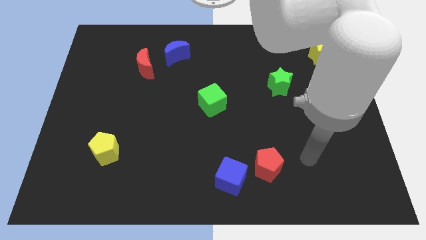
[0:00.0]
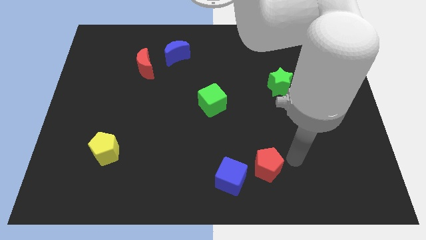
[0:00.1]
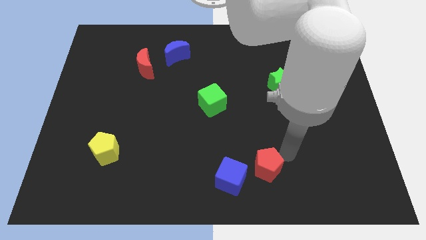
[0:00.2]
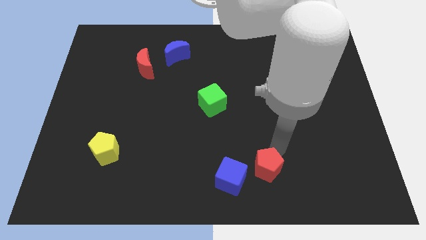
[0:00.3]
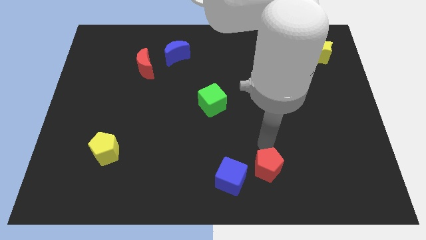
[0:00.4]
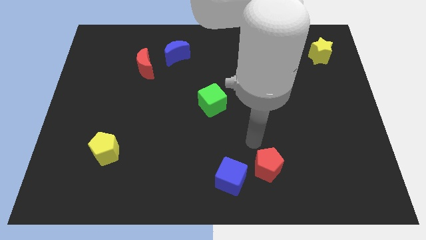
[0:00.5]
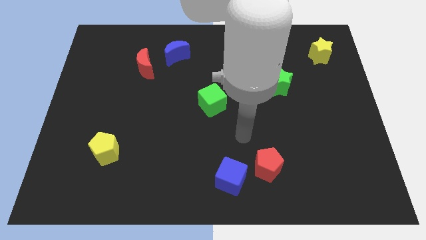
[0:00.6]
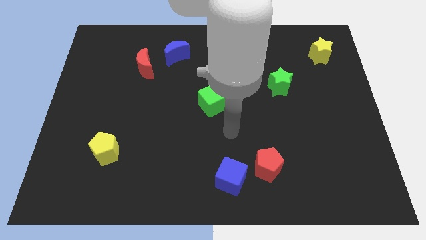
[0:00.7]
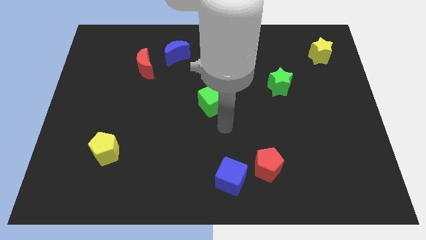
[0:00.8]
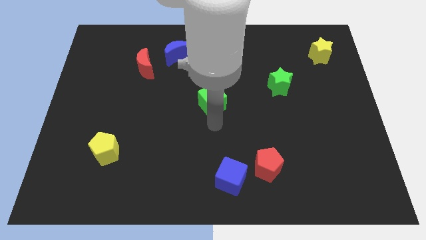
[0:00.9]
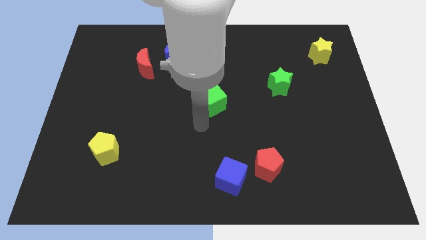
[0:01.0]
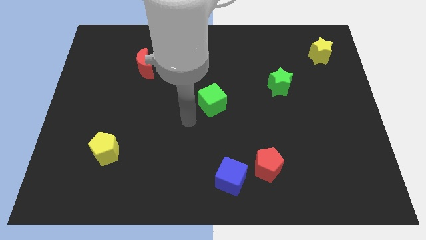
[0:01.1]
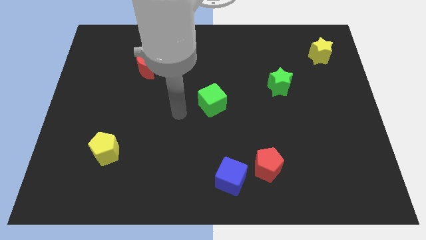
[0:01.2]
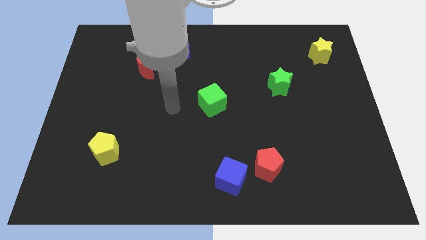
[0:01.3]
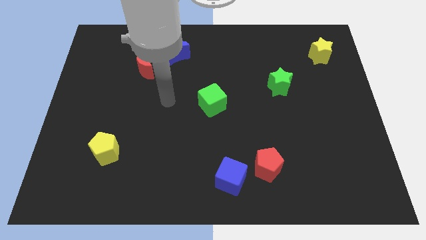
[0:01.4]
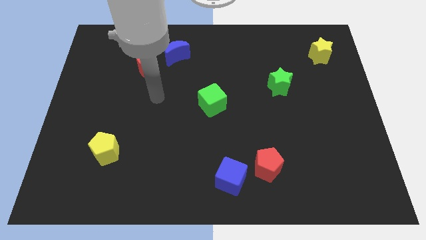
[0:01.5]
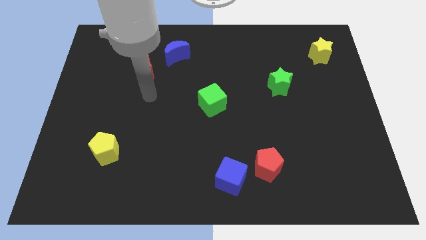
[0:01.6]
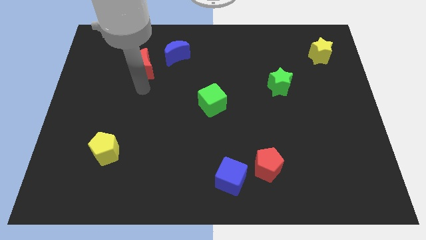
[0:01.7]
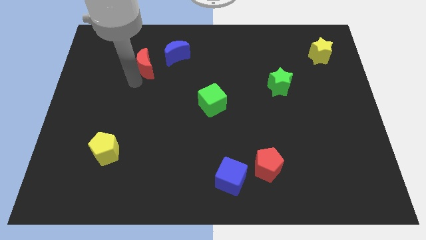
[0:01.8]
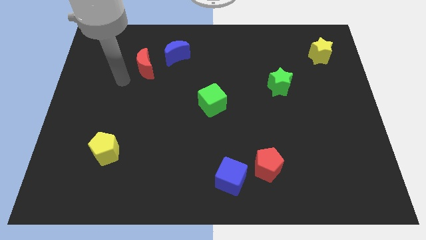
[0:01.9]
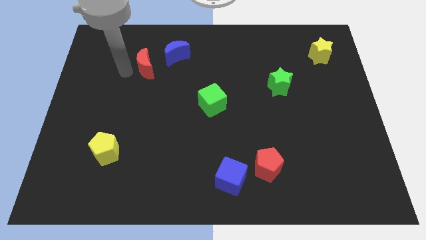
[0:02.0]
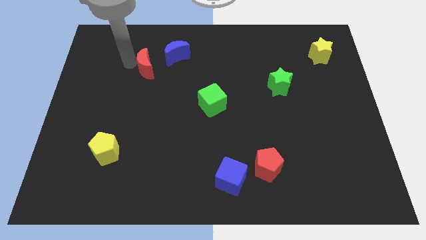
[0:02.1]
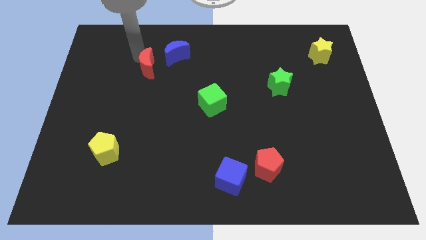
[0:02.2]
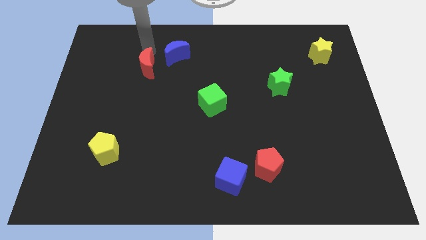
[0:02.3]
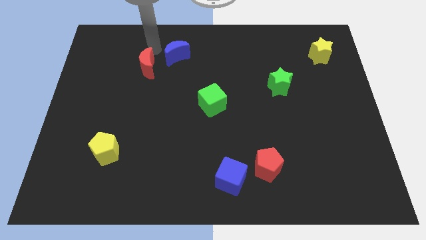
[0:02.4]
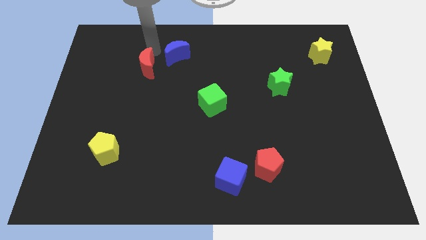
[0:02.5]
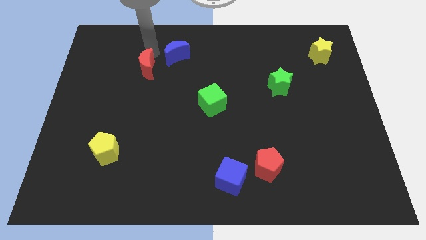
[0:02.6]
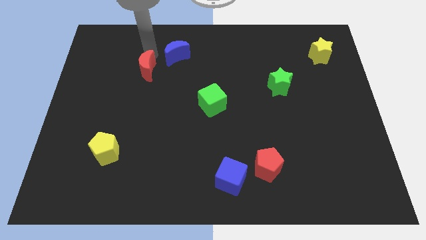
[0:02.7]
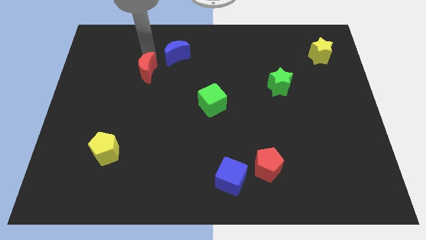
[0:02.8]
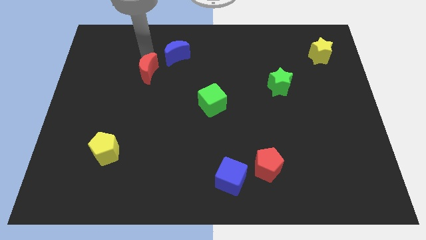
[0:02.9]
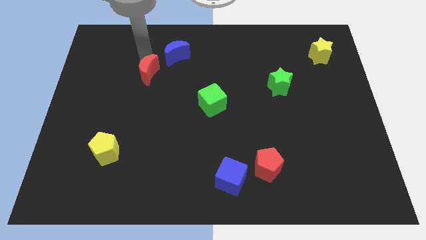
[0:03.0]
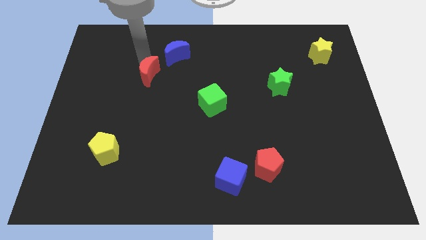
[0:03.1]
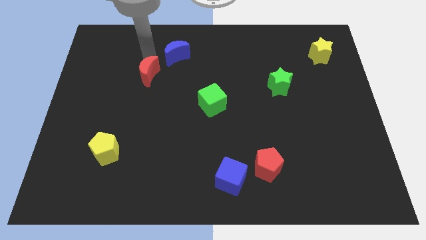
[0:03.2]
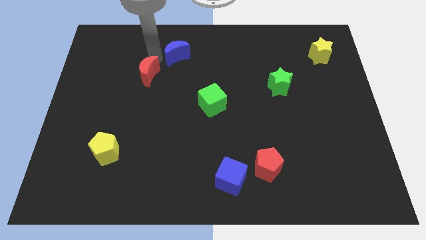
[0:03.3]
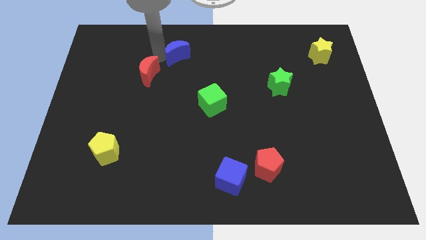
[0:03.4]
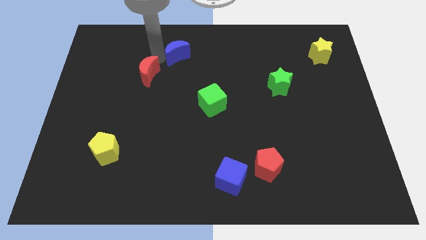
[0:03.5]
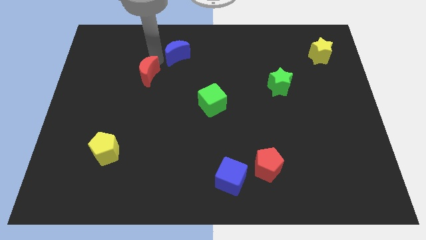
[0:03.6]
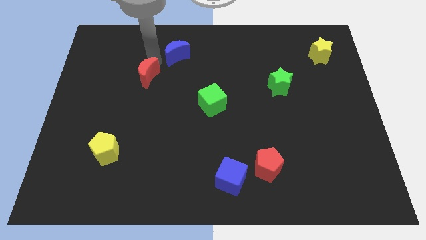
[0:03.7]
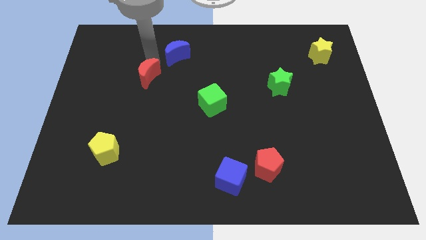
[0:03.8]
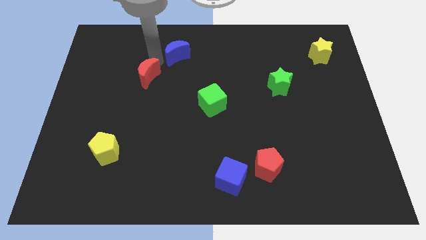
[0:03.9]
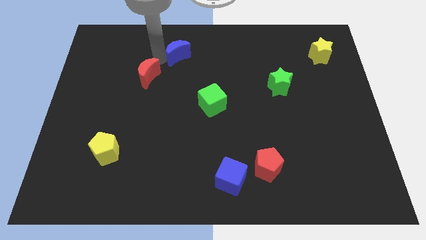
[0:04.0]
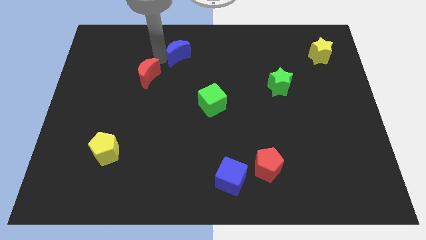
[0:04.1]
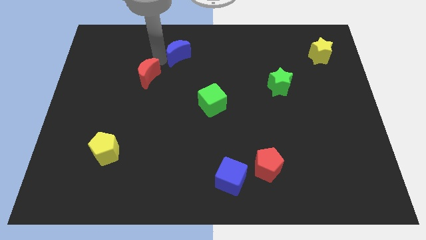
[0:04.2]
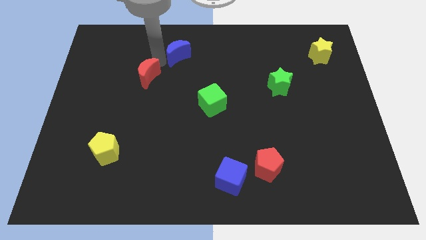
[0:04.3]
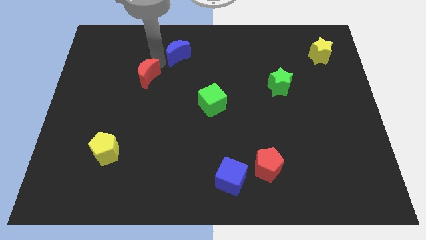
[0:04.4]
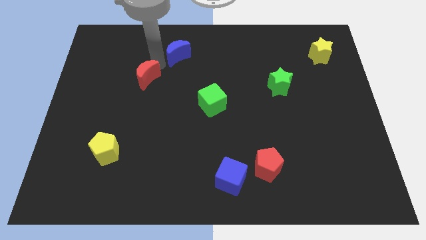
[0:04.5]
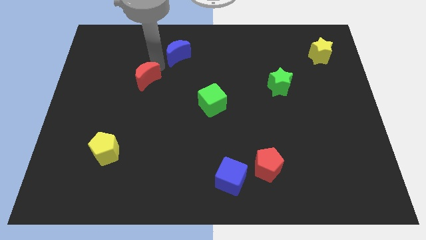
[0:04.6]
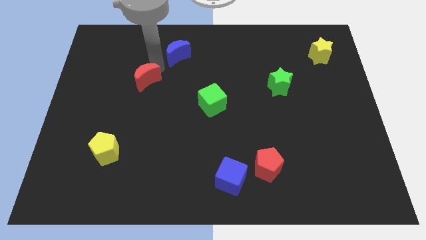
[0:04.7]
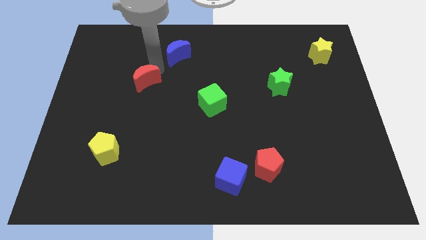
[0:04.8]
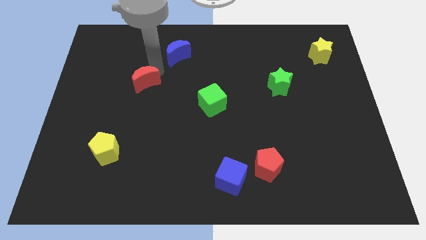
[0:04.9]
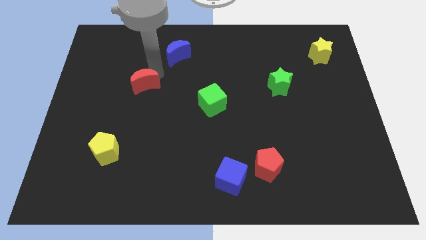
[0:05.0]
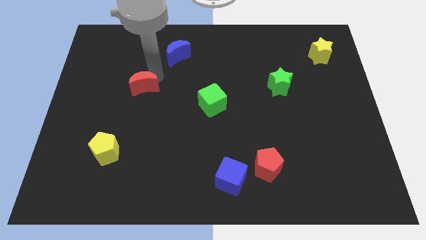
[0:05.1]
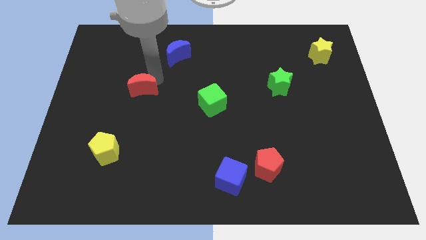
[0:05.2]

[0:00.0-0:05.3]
slide the red moon a bit down

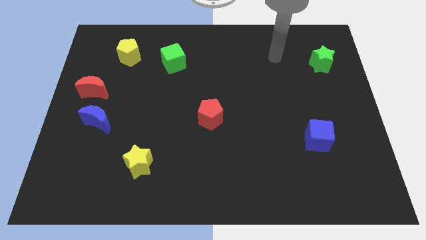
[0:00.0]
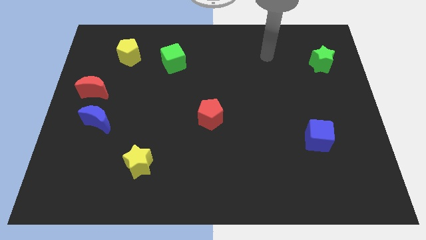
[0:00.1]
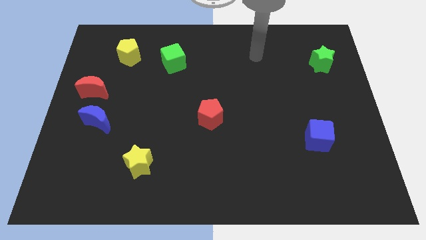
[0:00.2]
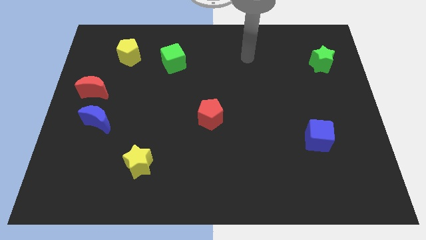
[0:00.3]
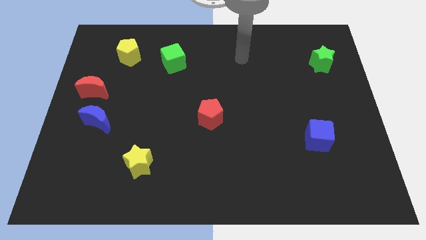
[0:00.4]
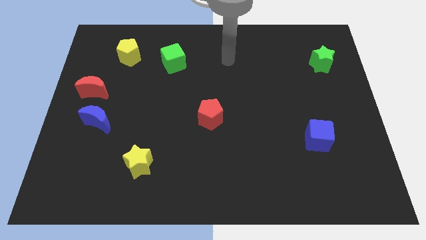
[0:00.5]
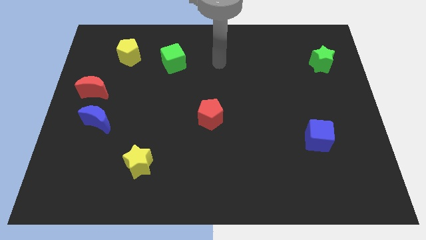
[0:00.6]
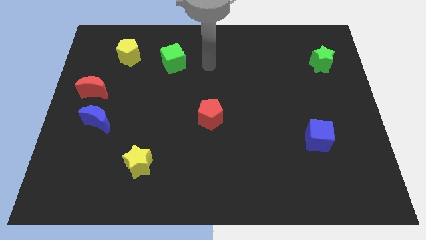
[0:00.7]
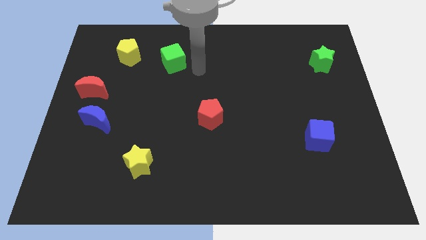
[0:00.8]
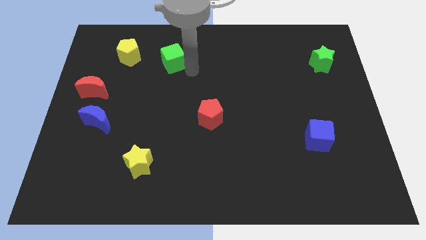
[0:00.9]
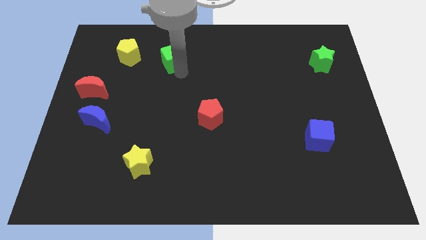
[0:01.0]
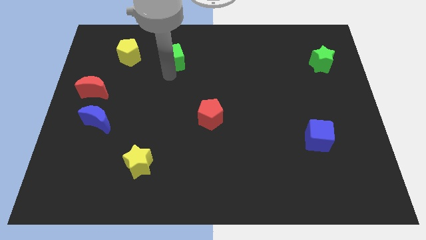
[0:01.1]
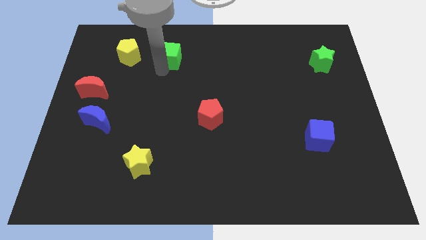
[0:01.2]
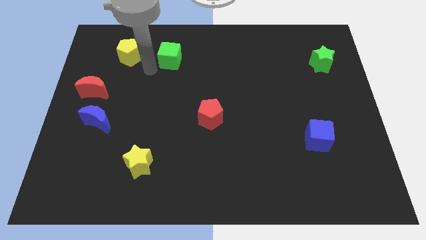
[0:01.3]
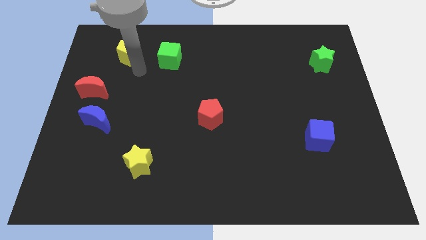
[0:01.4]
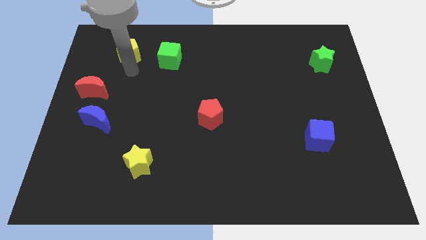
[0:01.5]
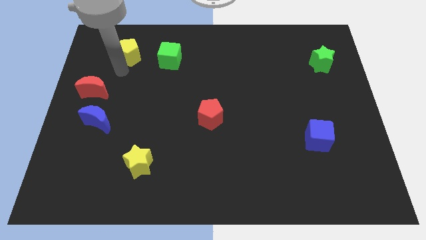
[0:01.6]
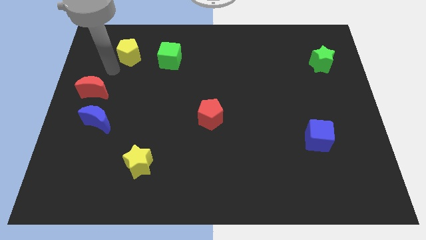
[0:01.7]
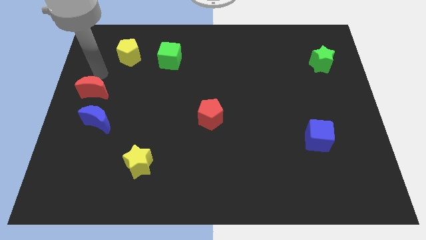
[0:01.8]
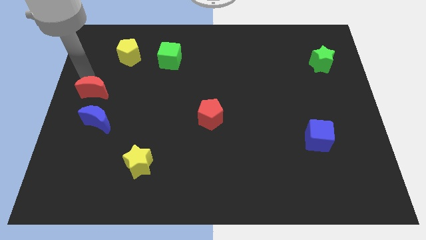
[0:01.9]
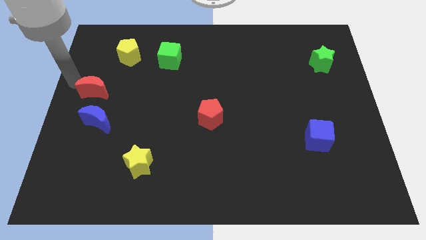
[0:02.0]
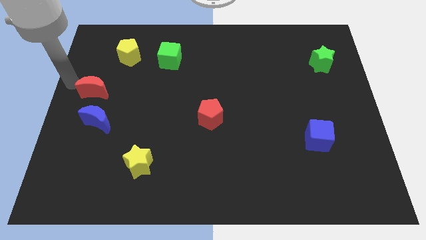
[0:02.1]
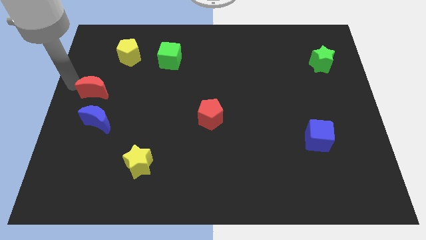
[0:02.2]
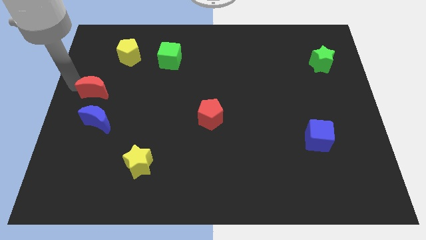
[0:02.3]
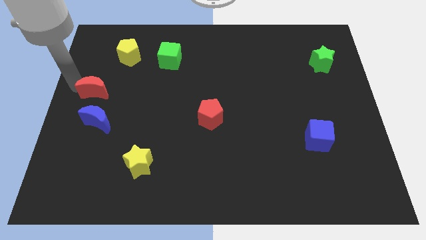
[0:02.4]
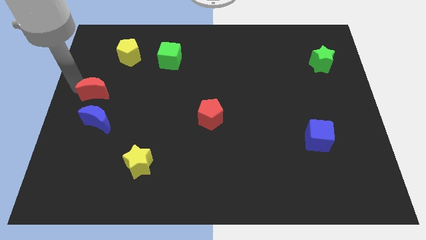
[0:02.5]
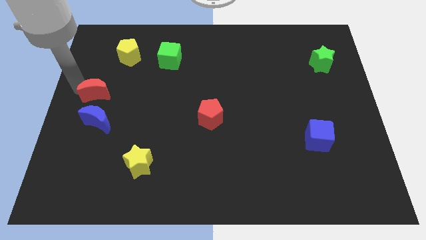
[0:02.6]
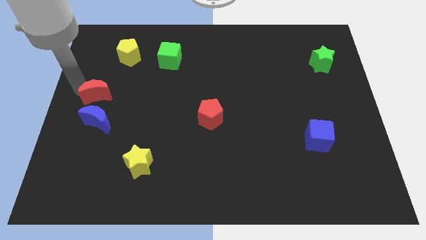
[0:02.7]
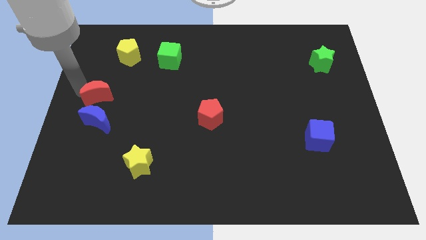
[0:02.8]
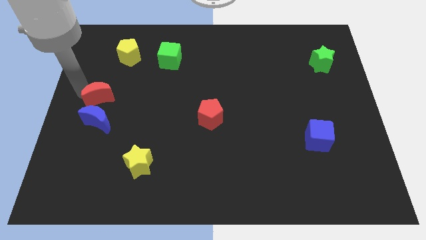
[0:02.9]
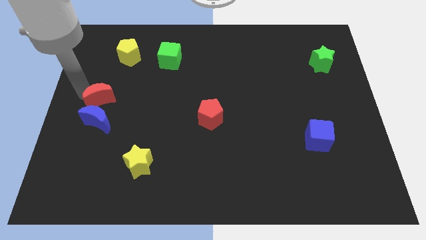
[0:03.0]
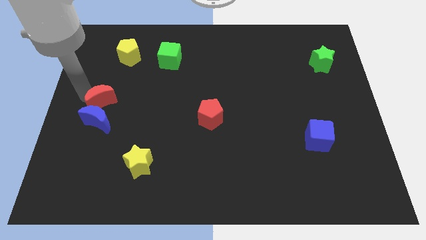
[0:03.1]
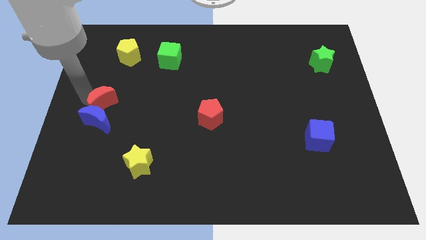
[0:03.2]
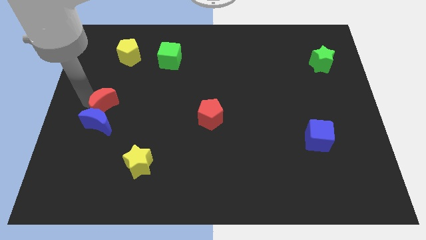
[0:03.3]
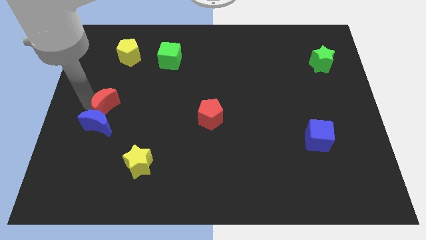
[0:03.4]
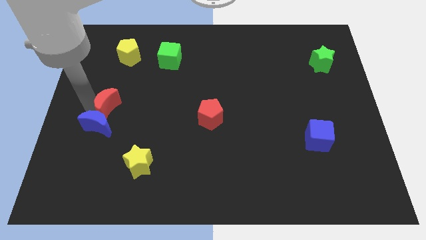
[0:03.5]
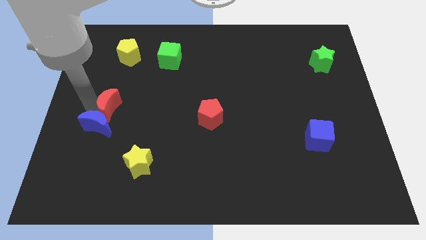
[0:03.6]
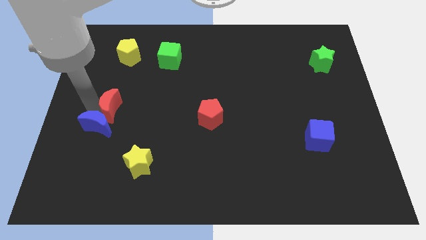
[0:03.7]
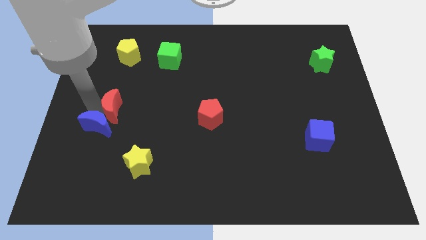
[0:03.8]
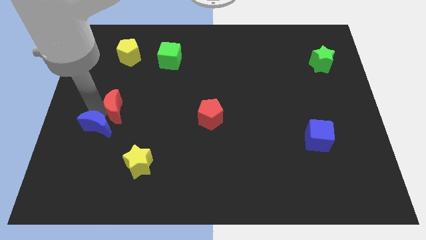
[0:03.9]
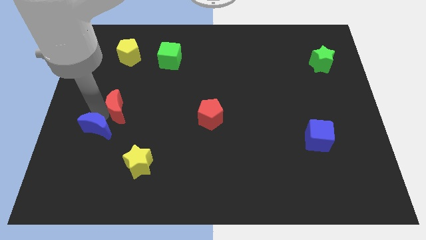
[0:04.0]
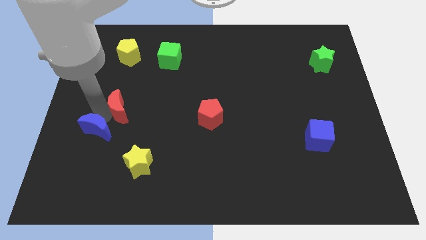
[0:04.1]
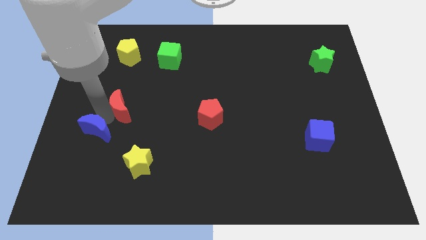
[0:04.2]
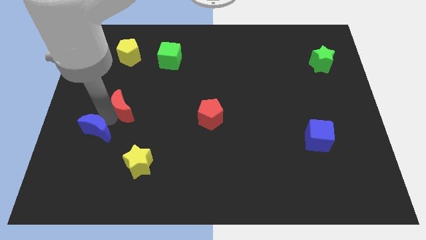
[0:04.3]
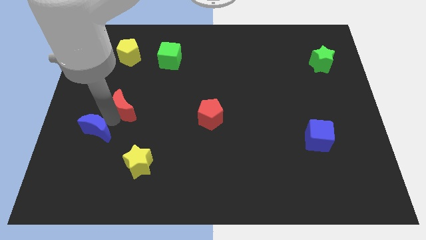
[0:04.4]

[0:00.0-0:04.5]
slide the red moon to the right somewhat
